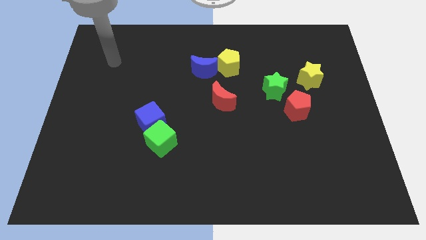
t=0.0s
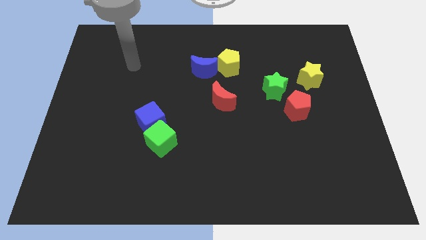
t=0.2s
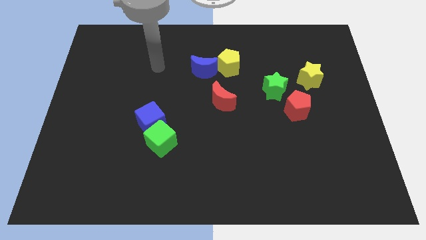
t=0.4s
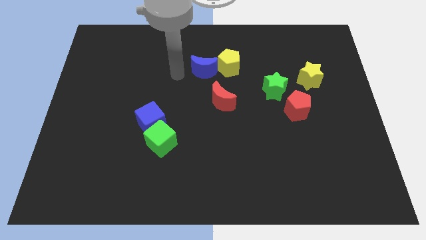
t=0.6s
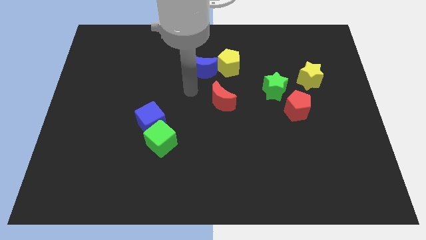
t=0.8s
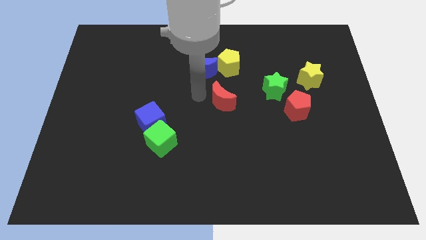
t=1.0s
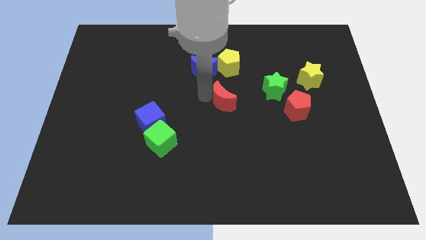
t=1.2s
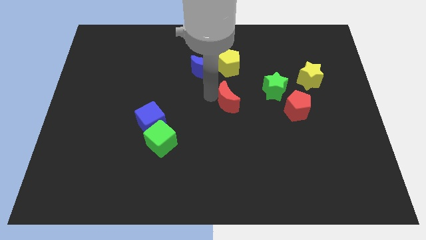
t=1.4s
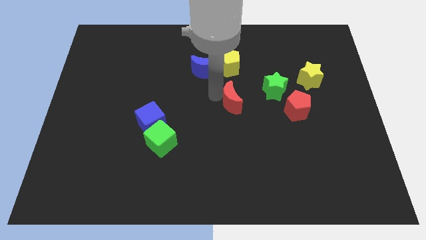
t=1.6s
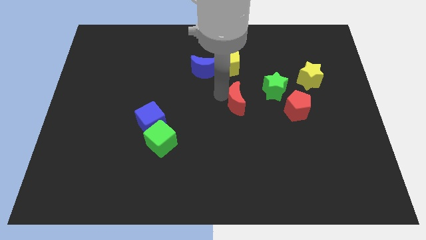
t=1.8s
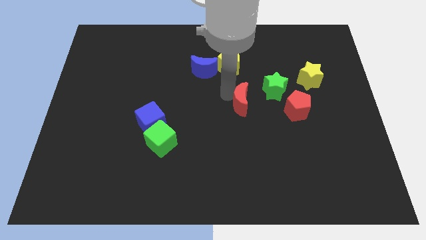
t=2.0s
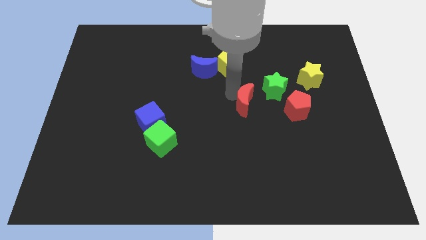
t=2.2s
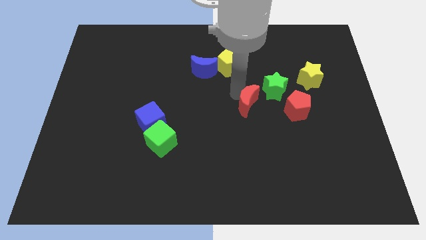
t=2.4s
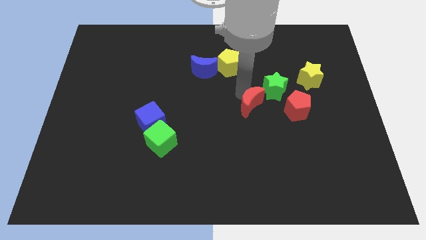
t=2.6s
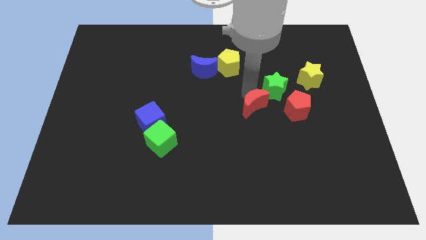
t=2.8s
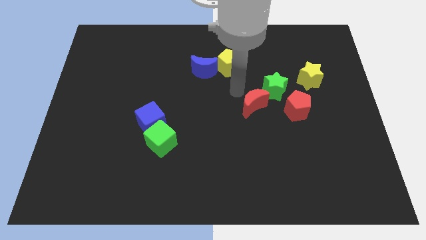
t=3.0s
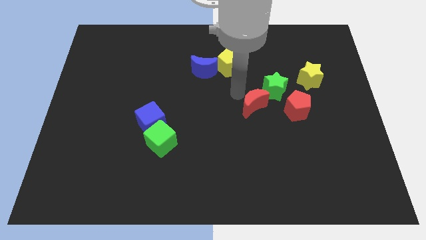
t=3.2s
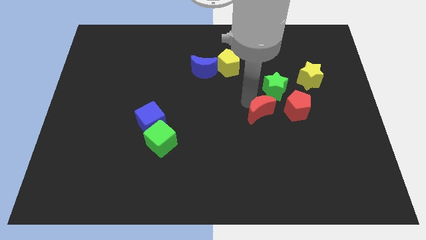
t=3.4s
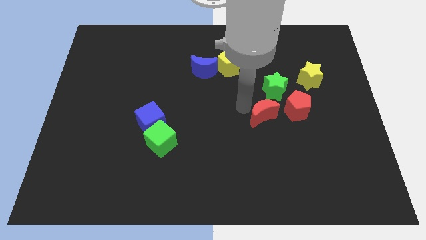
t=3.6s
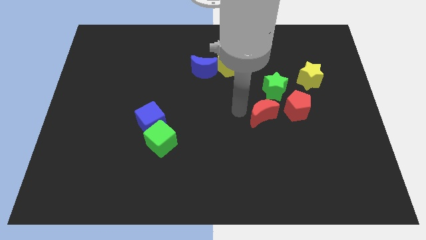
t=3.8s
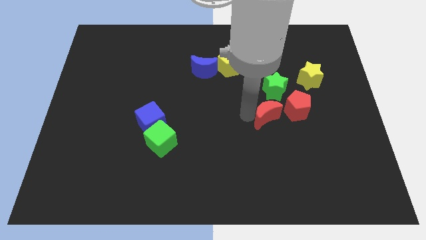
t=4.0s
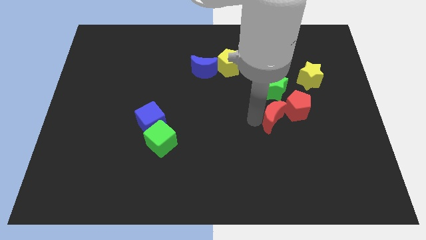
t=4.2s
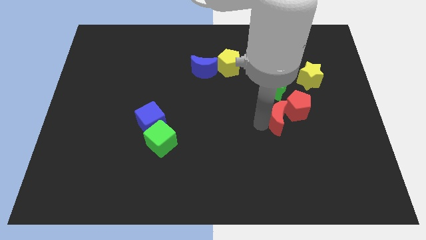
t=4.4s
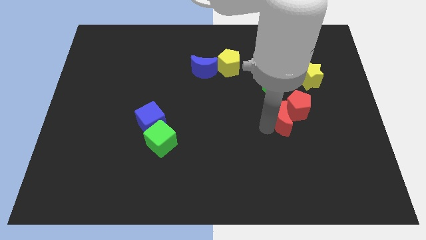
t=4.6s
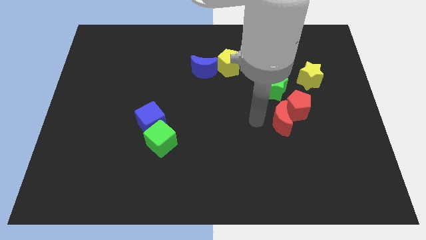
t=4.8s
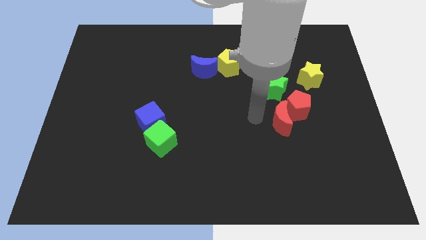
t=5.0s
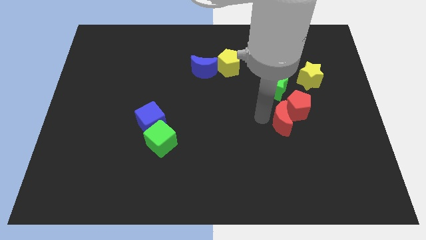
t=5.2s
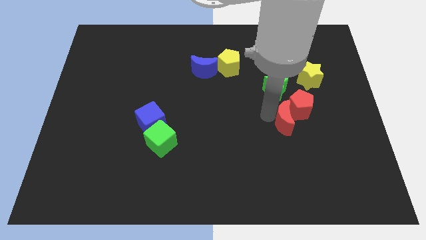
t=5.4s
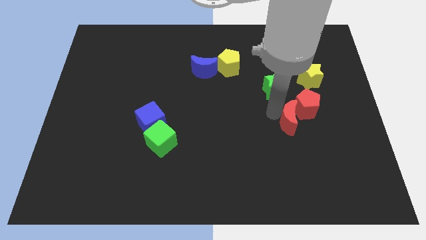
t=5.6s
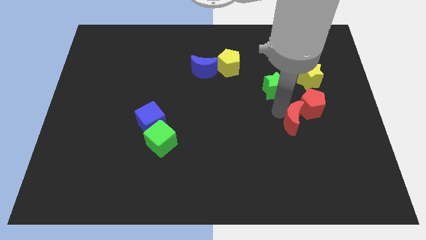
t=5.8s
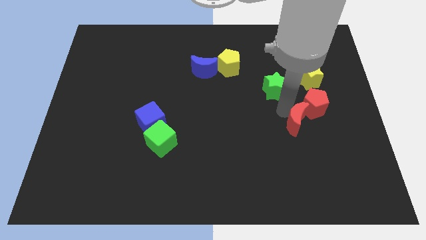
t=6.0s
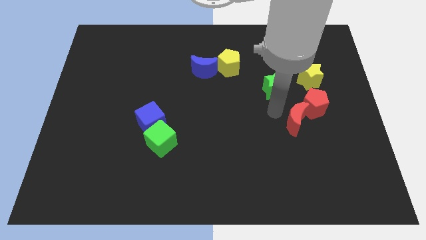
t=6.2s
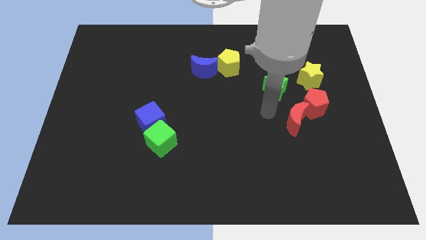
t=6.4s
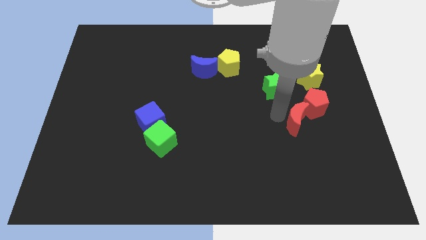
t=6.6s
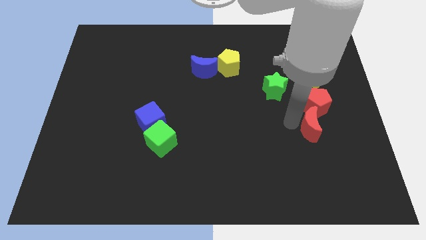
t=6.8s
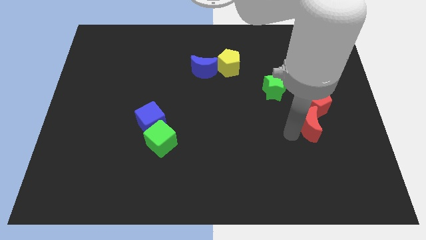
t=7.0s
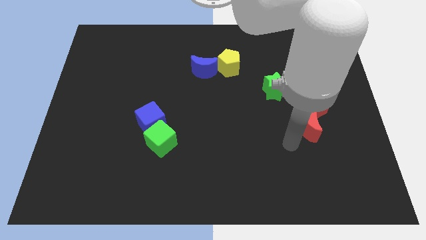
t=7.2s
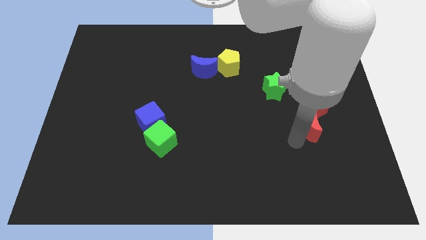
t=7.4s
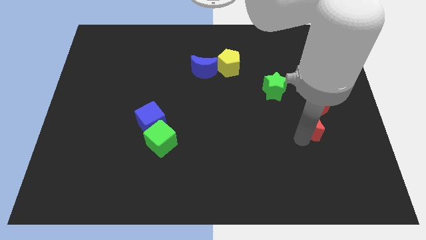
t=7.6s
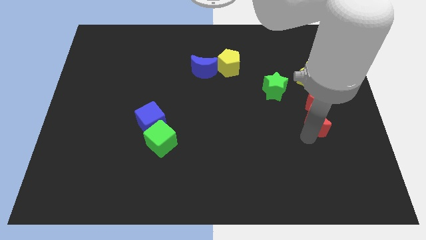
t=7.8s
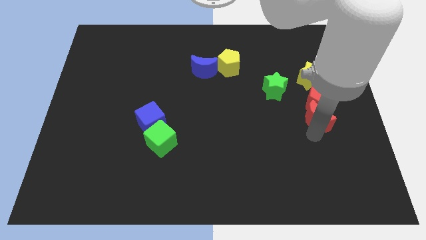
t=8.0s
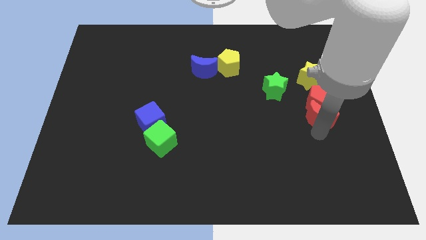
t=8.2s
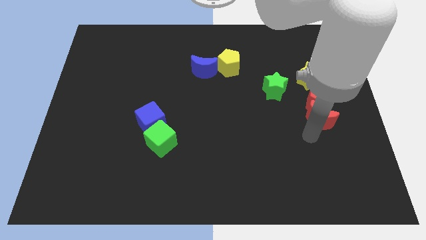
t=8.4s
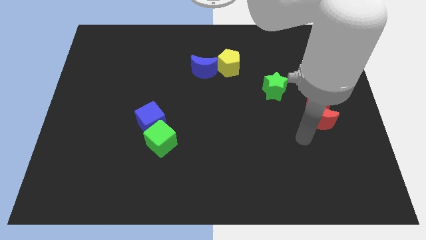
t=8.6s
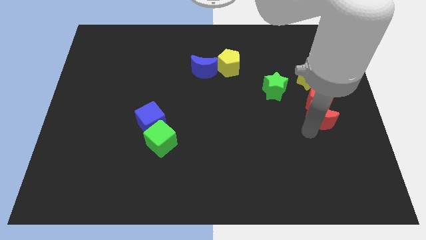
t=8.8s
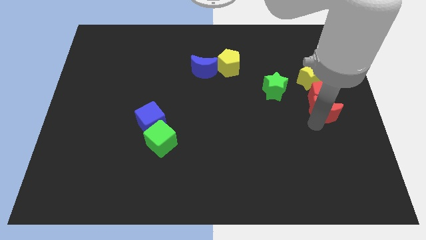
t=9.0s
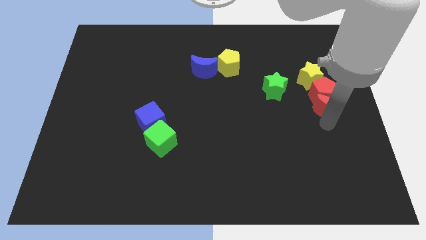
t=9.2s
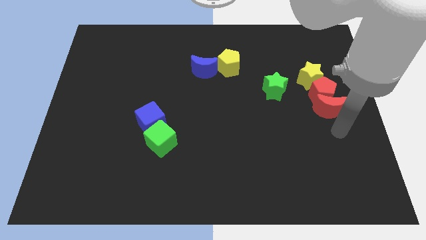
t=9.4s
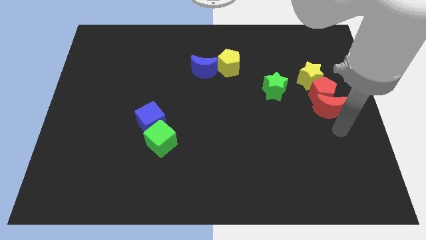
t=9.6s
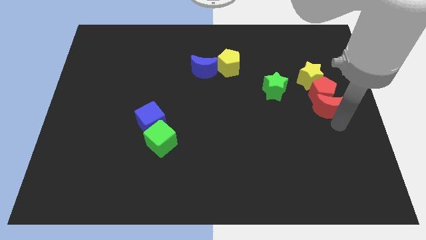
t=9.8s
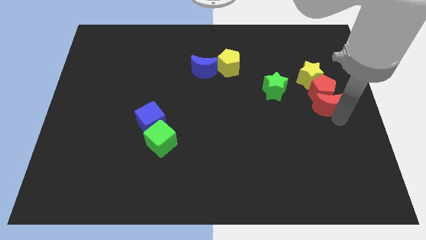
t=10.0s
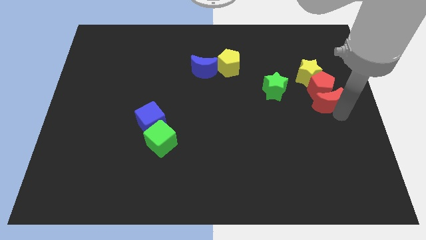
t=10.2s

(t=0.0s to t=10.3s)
put the red moon just right of the green star

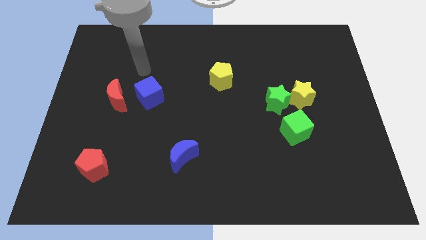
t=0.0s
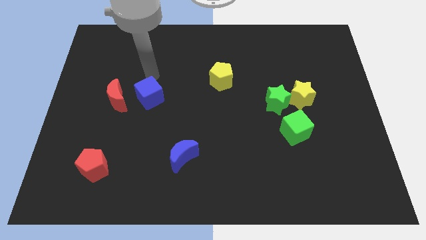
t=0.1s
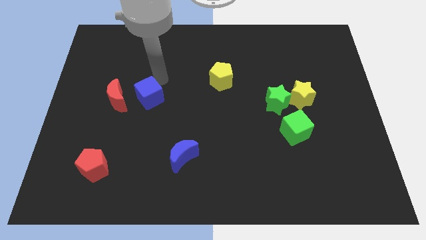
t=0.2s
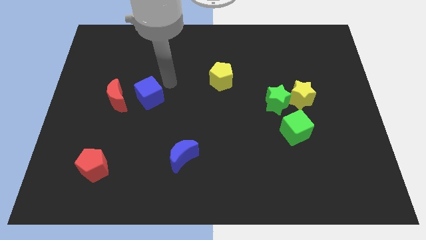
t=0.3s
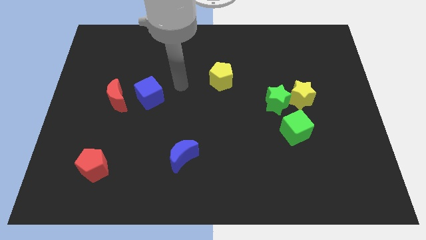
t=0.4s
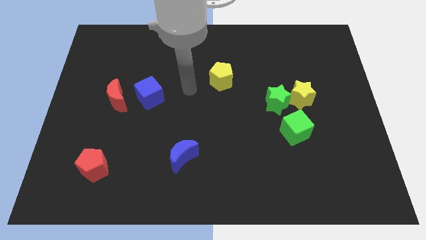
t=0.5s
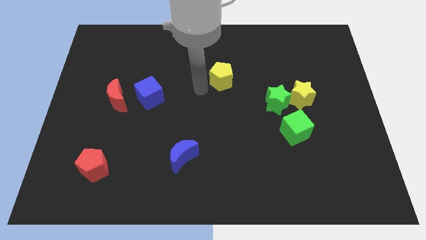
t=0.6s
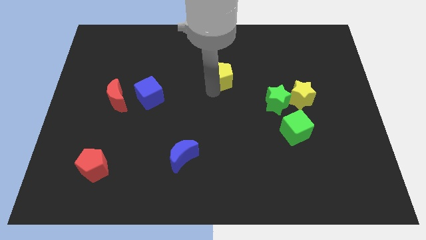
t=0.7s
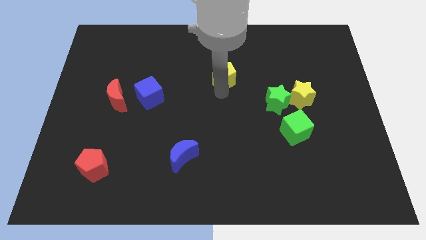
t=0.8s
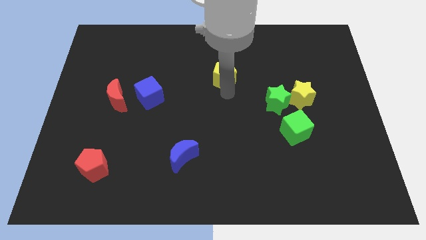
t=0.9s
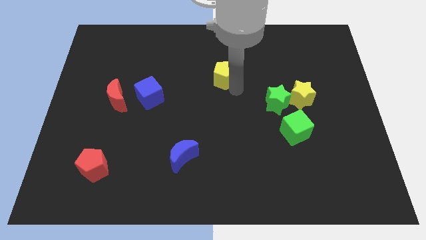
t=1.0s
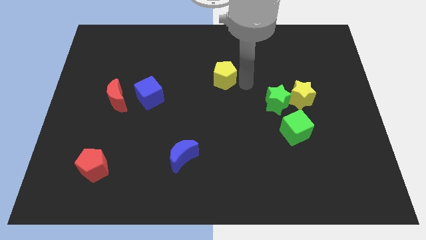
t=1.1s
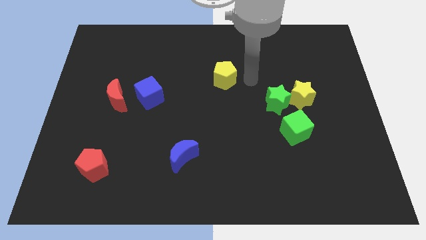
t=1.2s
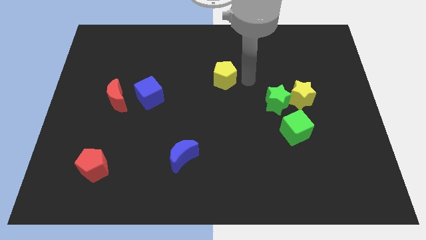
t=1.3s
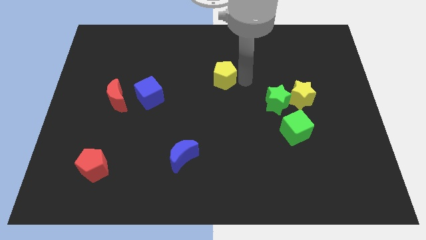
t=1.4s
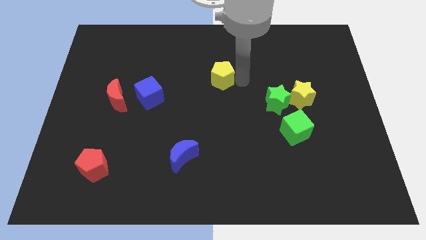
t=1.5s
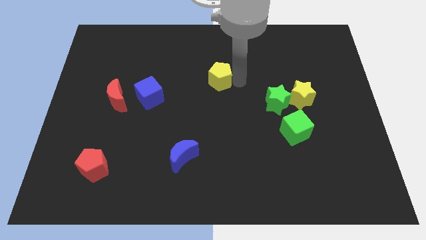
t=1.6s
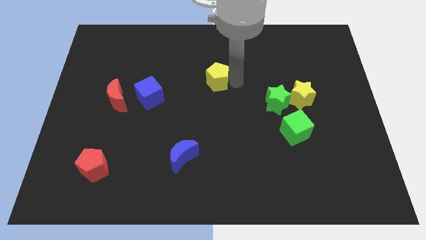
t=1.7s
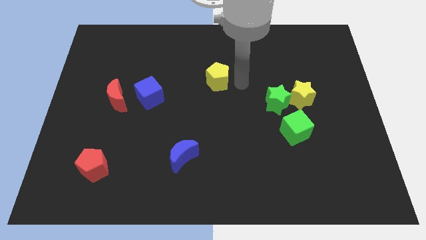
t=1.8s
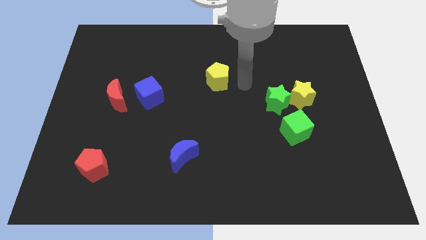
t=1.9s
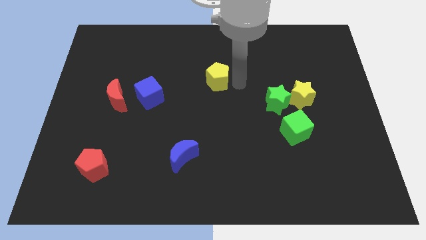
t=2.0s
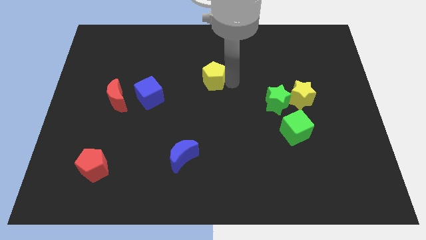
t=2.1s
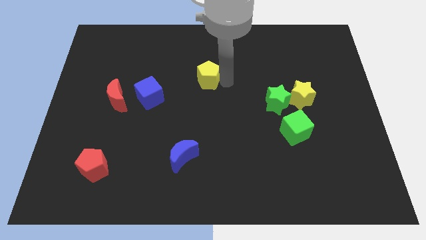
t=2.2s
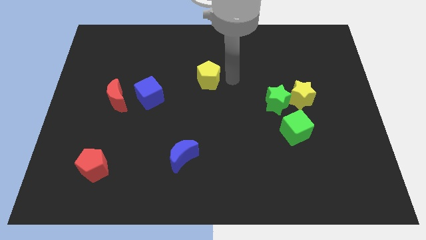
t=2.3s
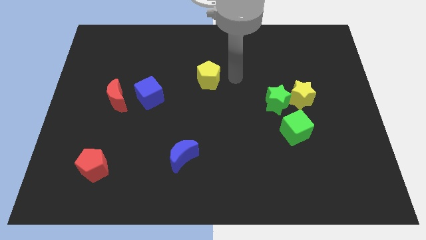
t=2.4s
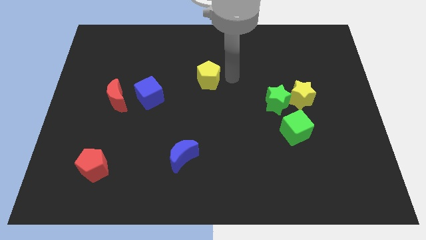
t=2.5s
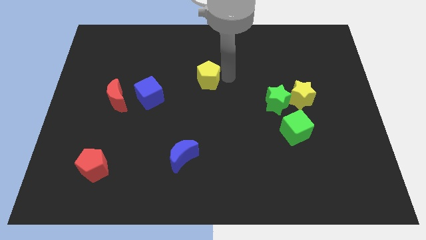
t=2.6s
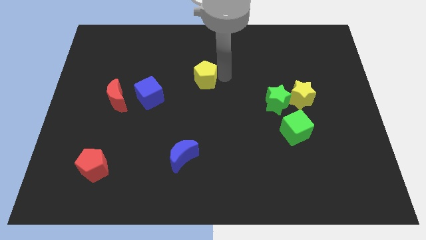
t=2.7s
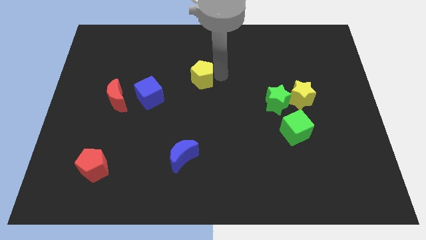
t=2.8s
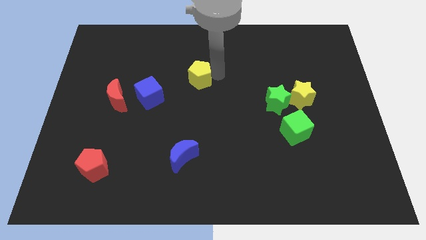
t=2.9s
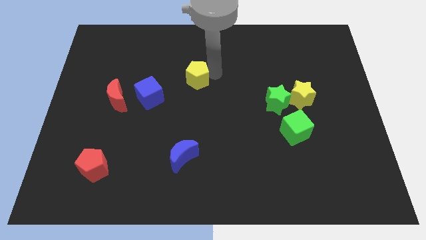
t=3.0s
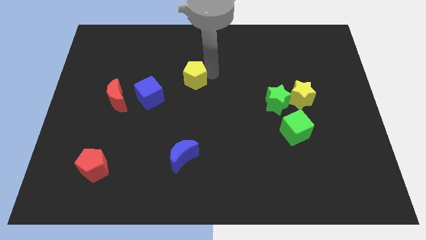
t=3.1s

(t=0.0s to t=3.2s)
slide the yellow pentagon diagonally up and to the right of the blue cube
